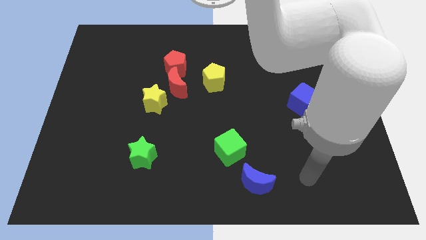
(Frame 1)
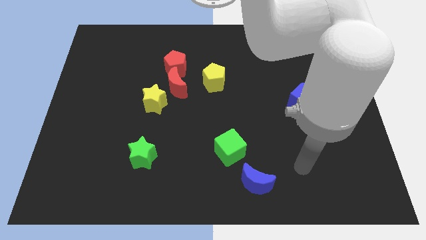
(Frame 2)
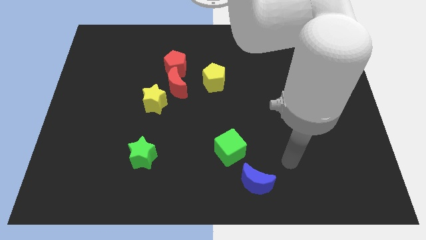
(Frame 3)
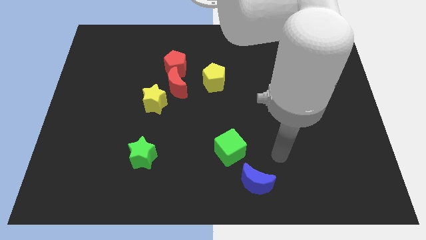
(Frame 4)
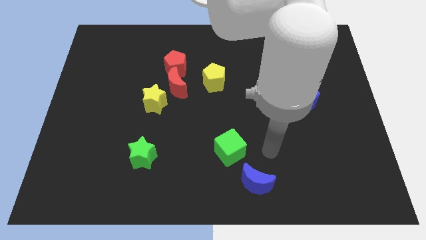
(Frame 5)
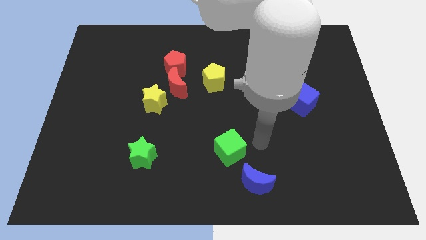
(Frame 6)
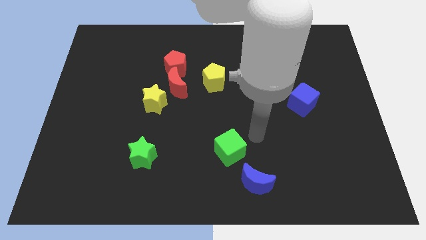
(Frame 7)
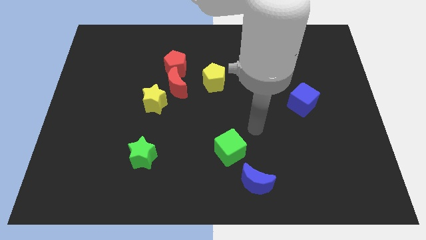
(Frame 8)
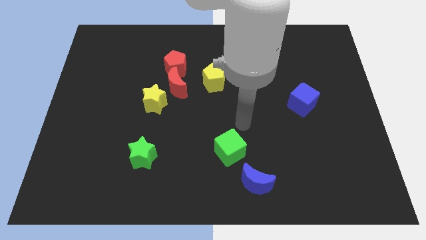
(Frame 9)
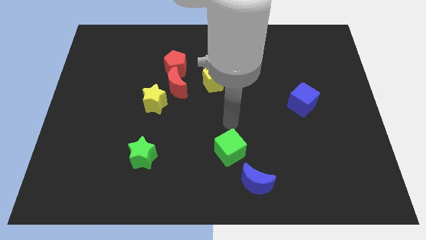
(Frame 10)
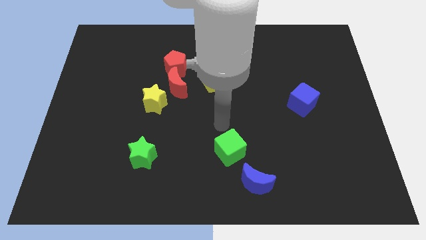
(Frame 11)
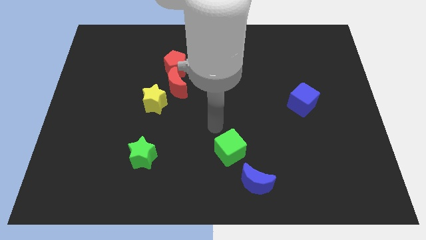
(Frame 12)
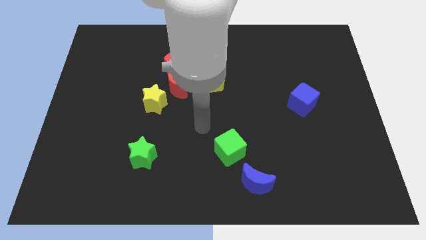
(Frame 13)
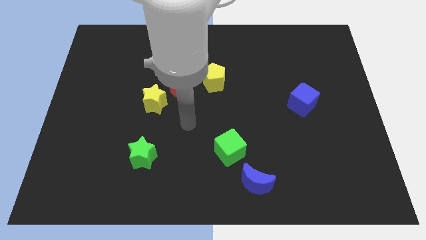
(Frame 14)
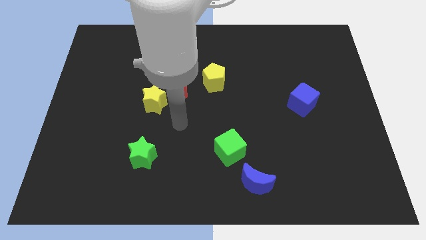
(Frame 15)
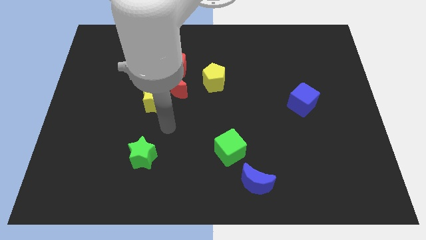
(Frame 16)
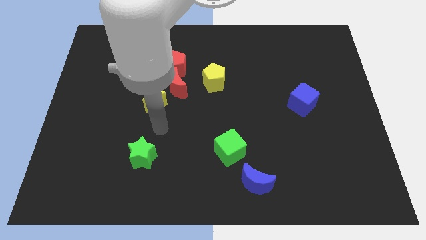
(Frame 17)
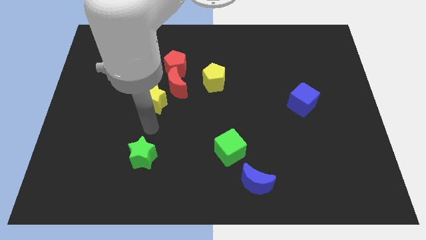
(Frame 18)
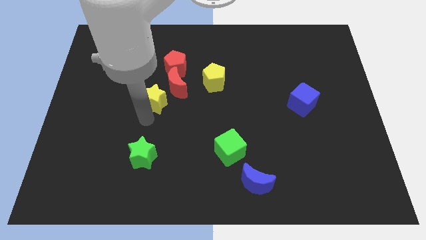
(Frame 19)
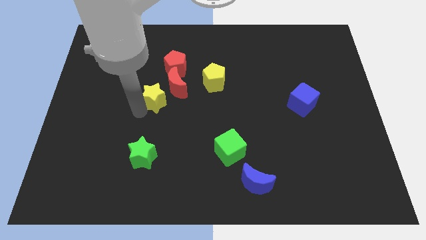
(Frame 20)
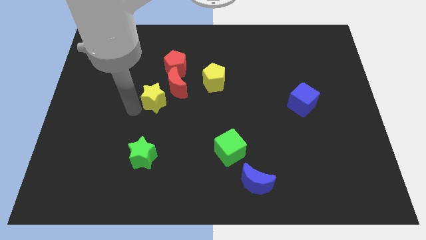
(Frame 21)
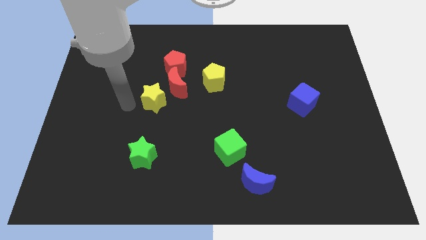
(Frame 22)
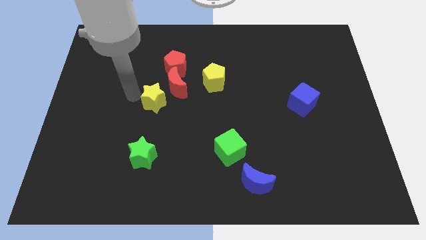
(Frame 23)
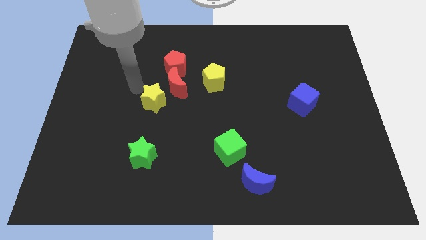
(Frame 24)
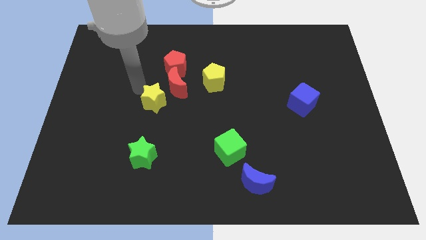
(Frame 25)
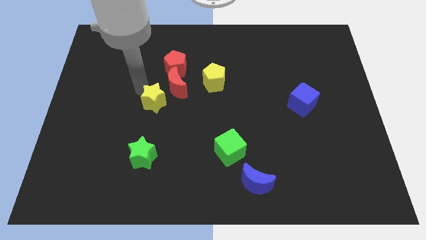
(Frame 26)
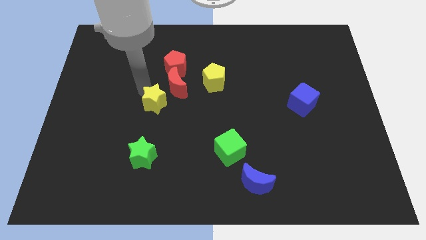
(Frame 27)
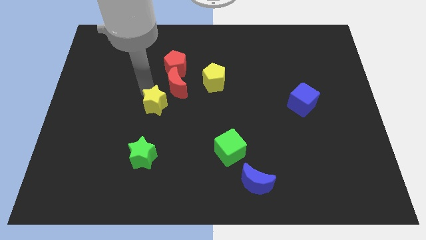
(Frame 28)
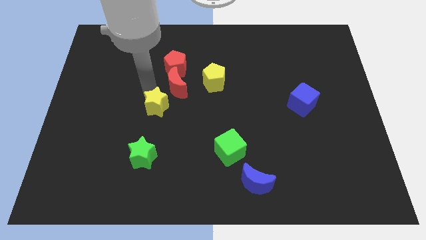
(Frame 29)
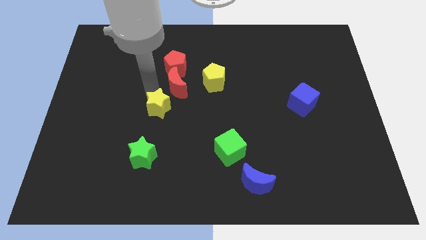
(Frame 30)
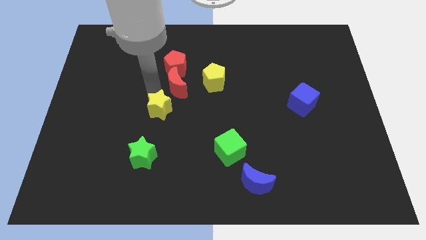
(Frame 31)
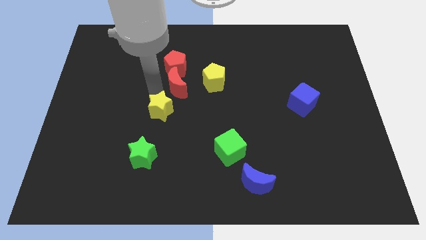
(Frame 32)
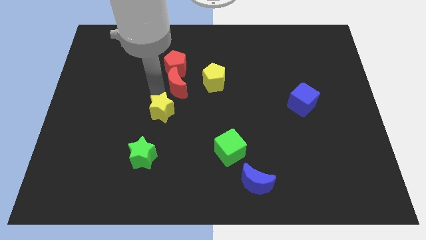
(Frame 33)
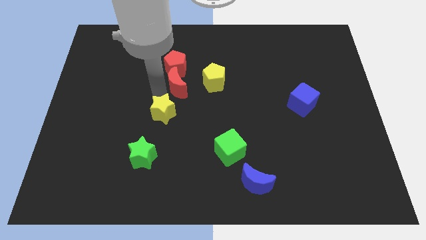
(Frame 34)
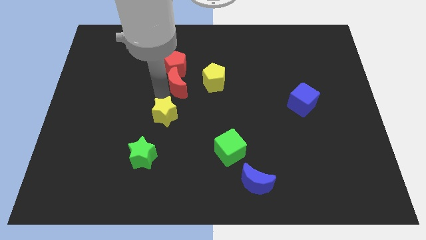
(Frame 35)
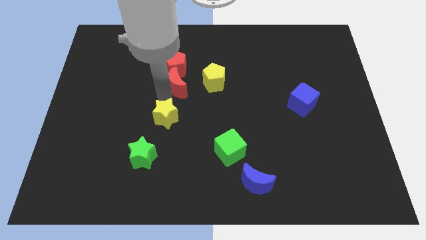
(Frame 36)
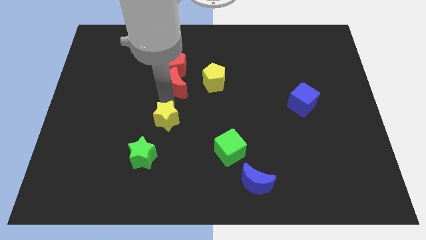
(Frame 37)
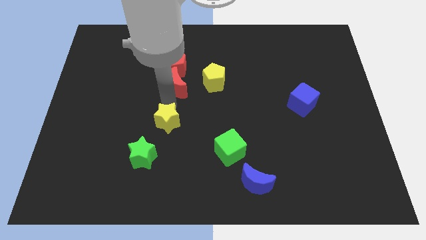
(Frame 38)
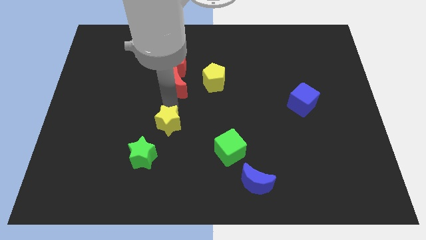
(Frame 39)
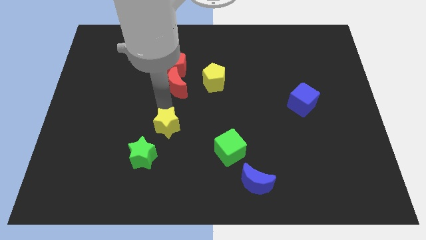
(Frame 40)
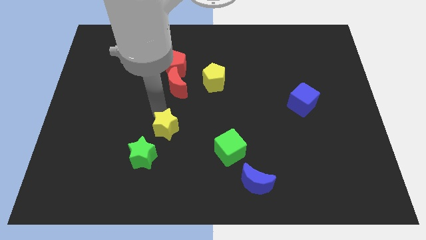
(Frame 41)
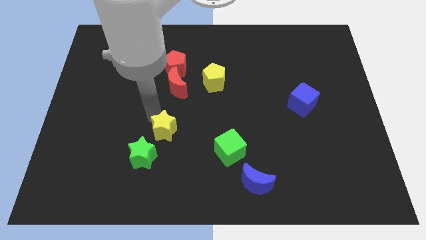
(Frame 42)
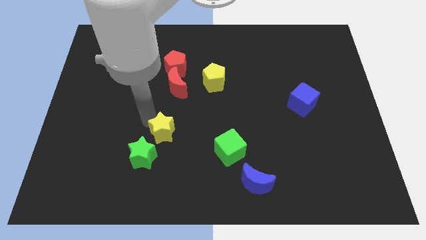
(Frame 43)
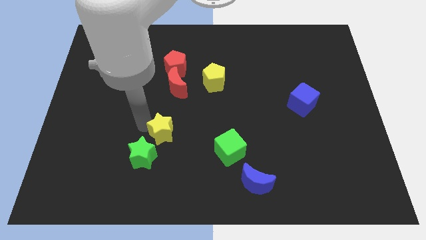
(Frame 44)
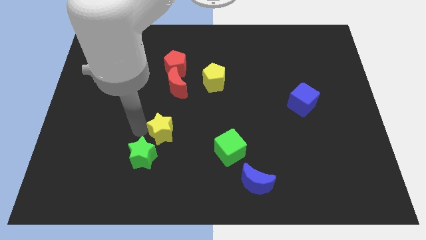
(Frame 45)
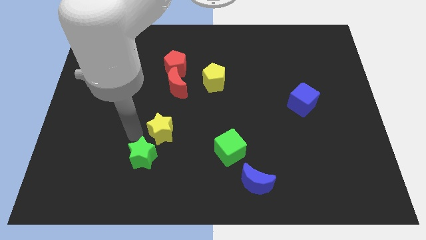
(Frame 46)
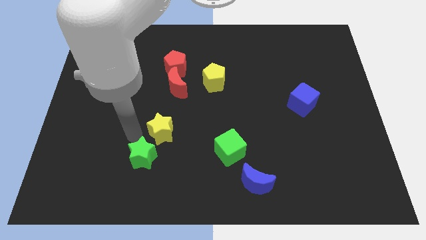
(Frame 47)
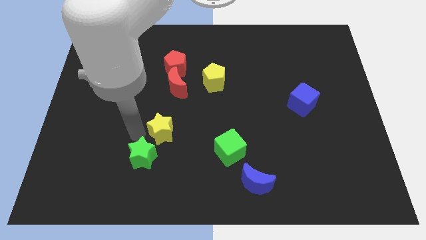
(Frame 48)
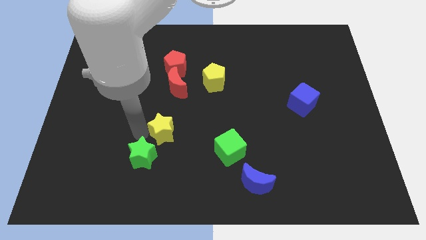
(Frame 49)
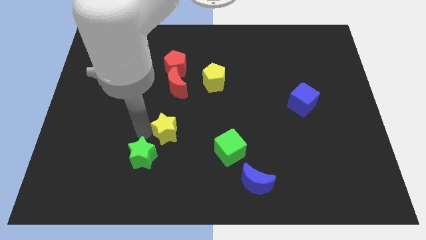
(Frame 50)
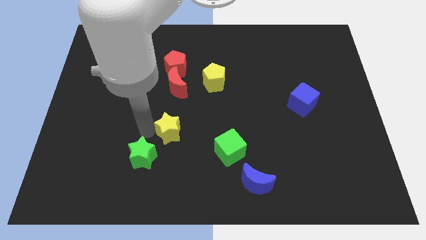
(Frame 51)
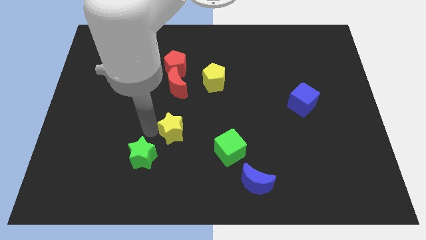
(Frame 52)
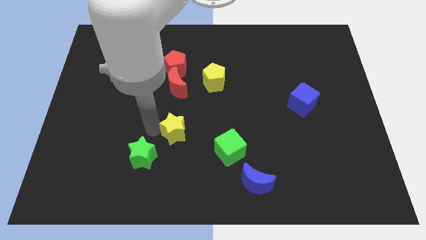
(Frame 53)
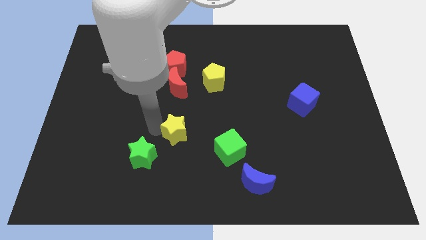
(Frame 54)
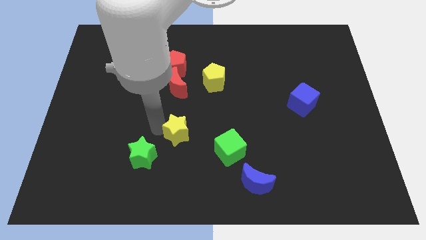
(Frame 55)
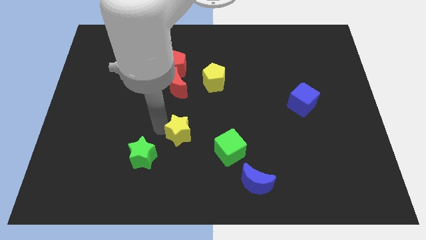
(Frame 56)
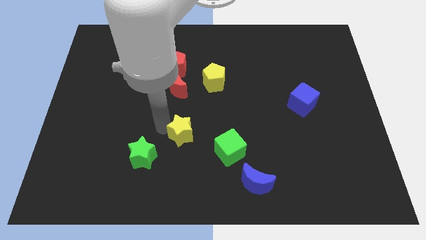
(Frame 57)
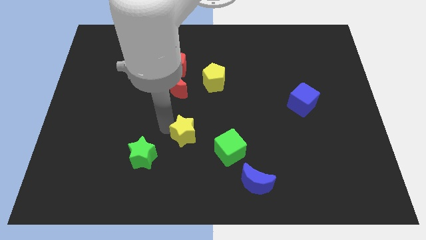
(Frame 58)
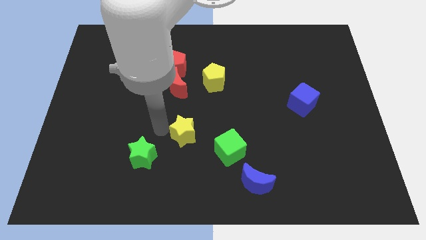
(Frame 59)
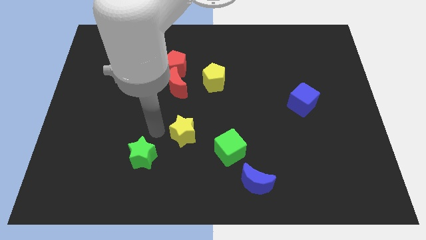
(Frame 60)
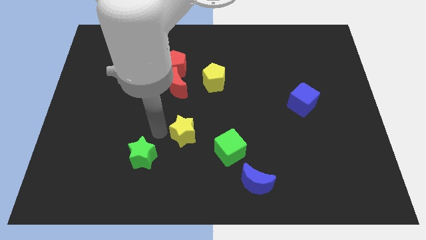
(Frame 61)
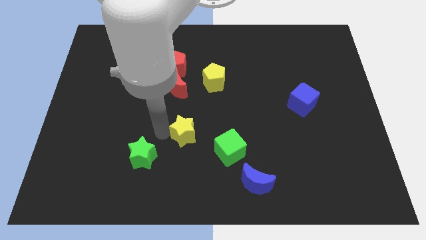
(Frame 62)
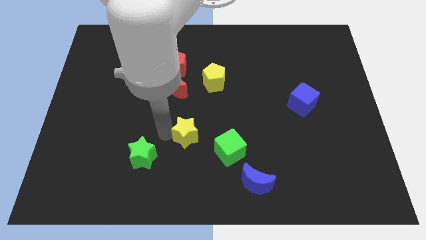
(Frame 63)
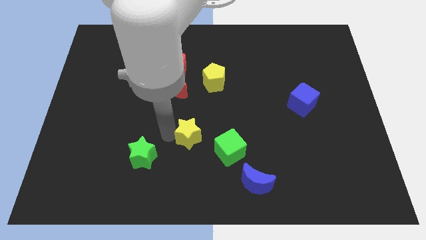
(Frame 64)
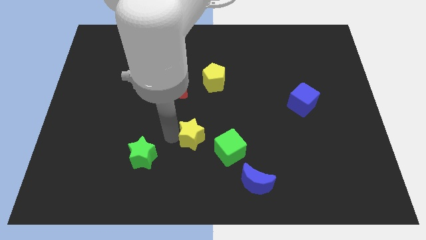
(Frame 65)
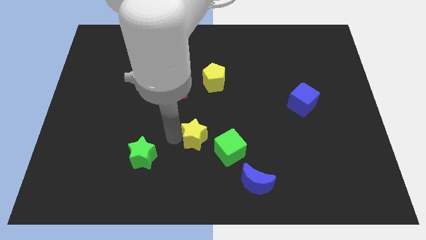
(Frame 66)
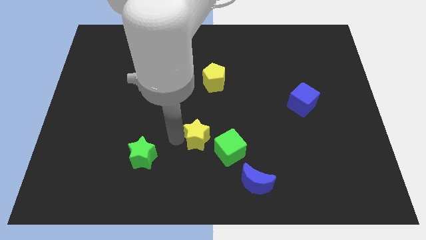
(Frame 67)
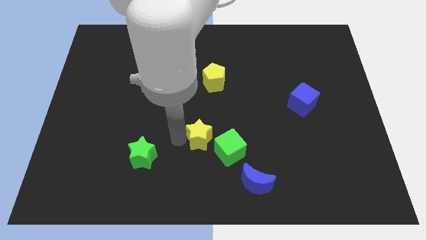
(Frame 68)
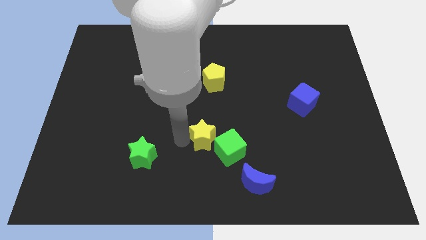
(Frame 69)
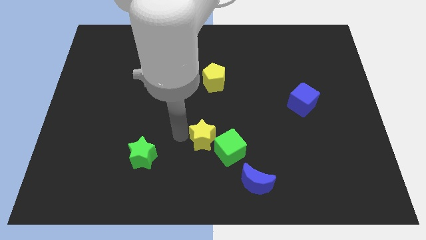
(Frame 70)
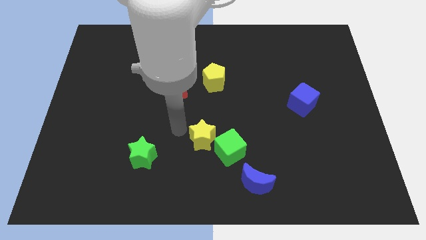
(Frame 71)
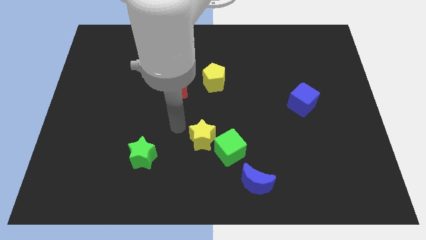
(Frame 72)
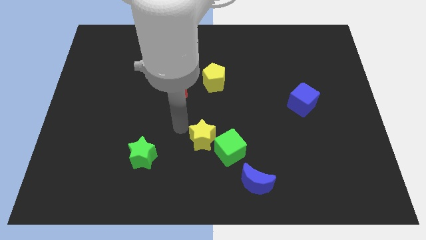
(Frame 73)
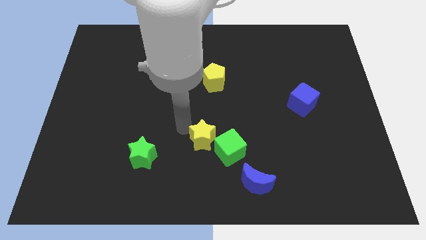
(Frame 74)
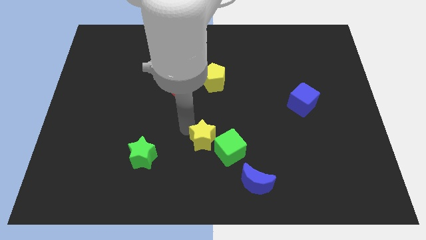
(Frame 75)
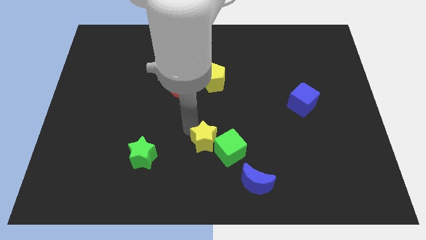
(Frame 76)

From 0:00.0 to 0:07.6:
slide the yellow star to the green cube

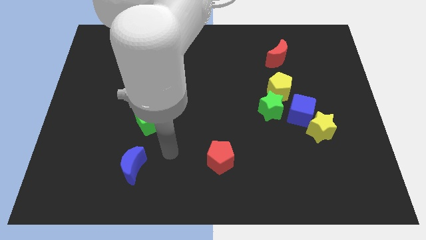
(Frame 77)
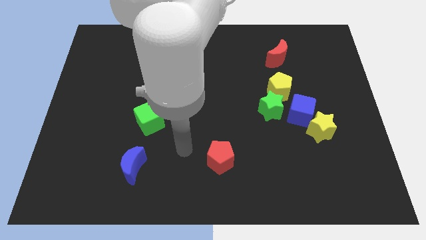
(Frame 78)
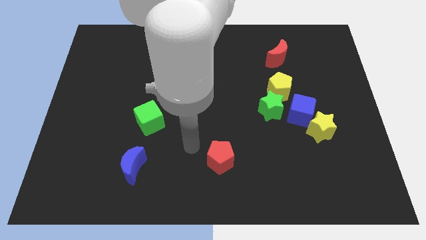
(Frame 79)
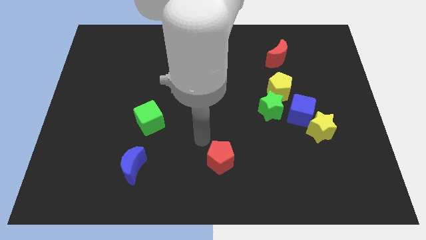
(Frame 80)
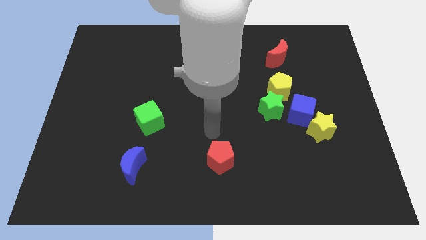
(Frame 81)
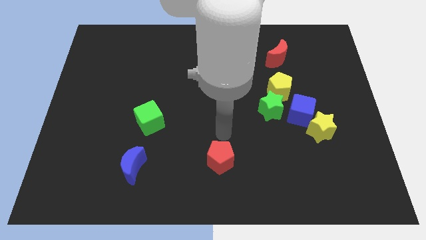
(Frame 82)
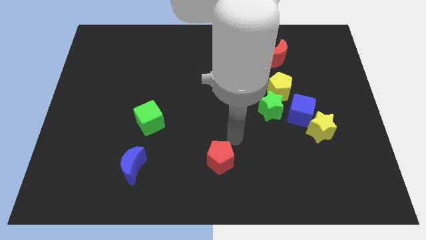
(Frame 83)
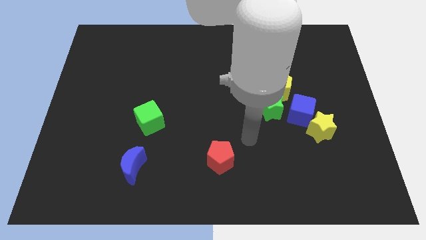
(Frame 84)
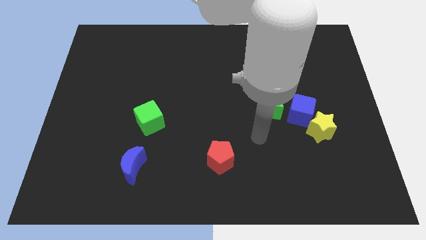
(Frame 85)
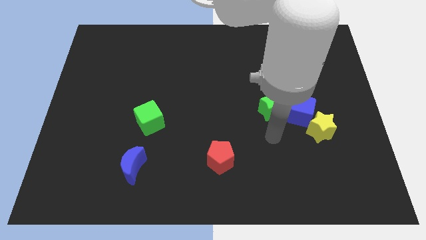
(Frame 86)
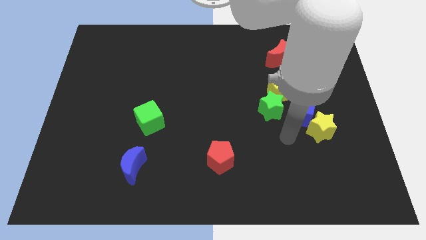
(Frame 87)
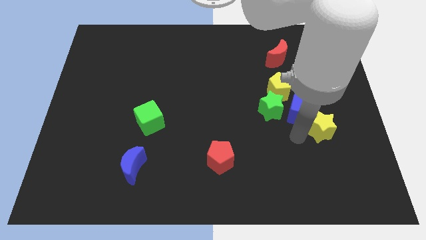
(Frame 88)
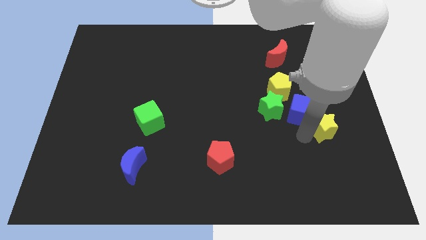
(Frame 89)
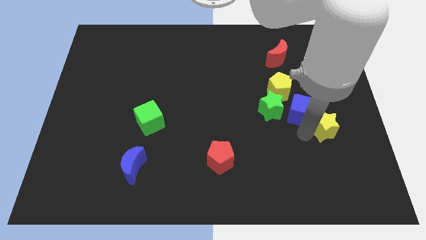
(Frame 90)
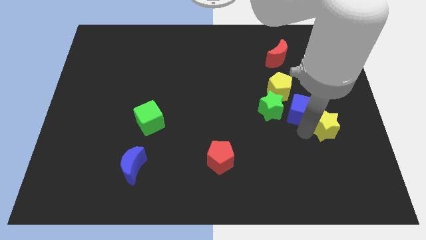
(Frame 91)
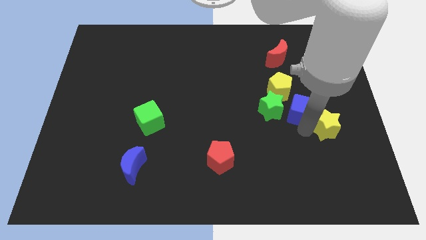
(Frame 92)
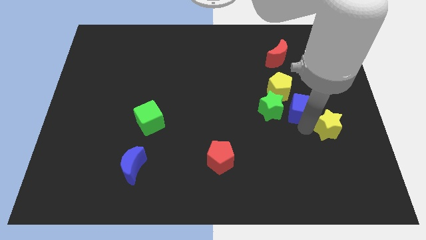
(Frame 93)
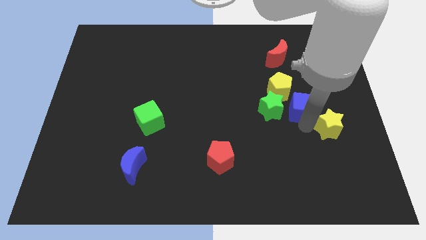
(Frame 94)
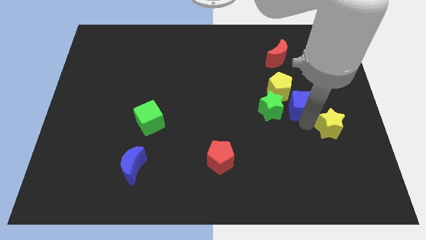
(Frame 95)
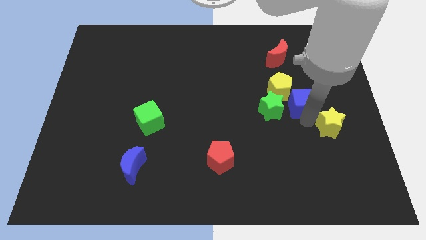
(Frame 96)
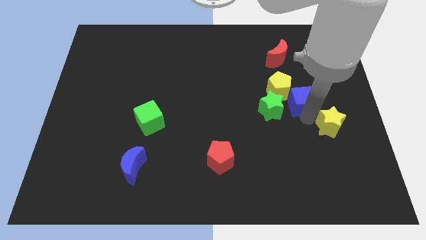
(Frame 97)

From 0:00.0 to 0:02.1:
move the blue cube towards the yellow pentagon
